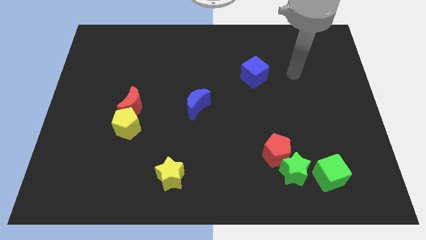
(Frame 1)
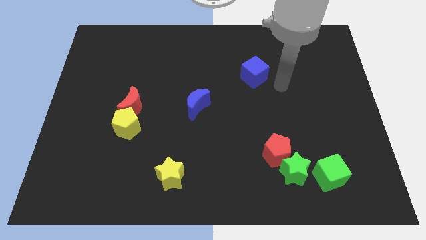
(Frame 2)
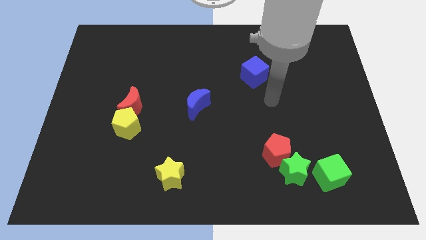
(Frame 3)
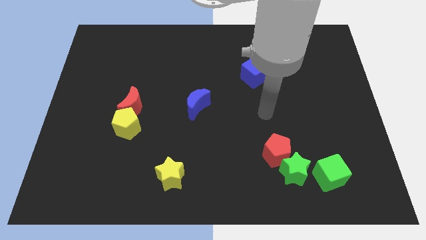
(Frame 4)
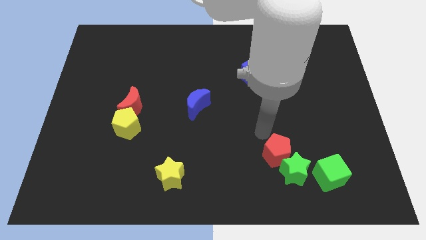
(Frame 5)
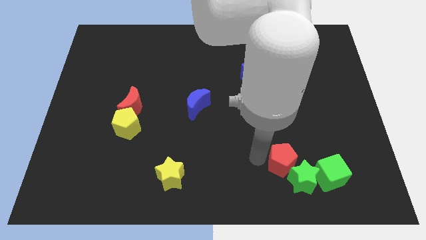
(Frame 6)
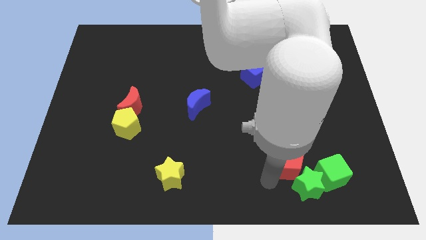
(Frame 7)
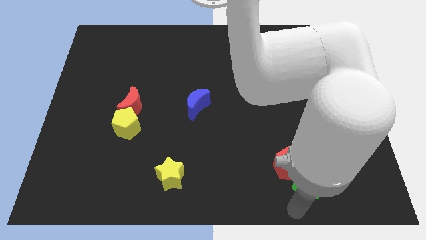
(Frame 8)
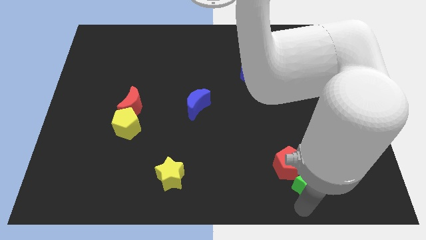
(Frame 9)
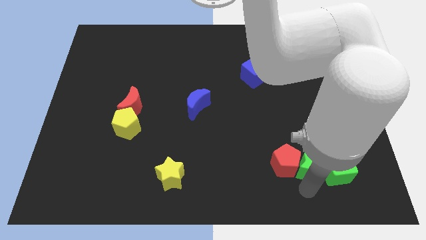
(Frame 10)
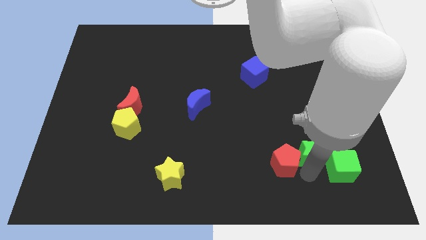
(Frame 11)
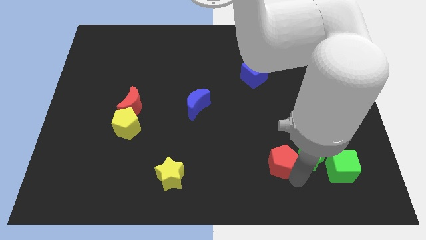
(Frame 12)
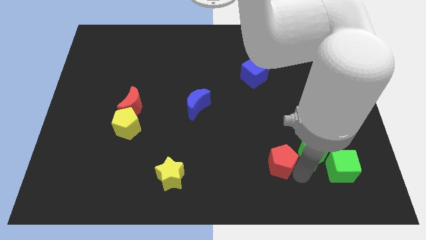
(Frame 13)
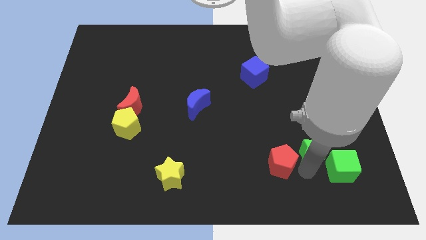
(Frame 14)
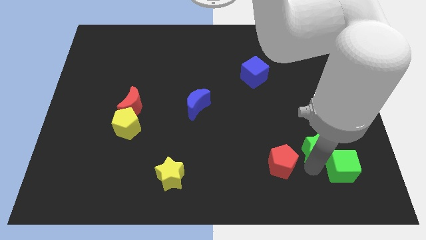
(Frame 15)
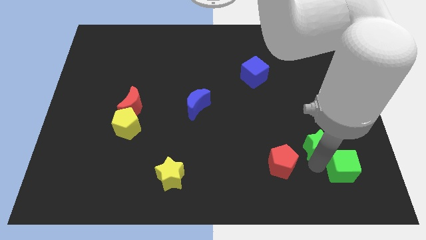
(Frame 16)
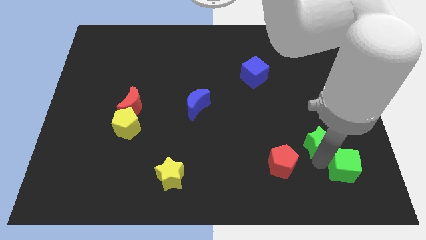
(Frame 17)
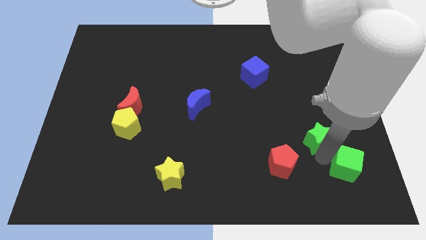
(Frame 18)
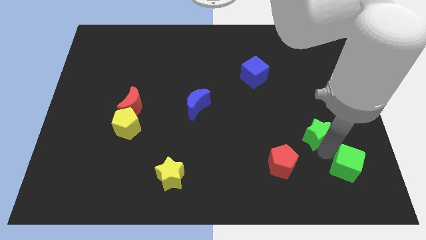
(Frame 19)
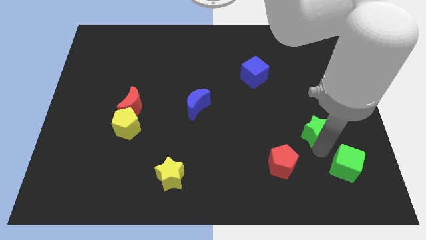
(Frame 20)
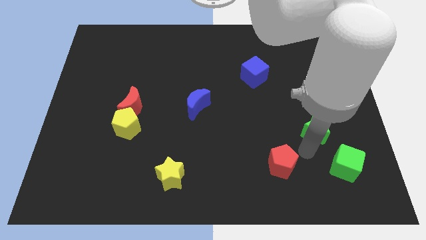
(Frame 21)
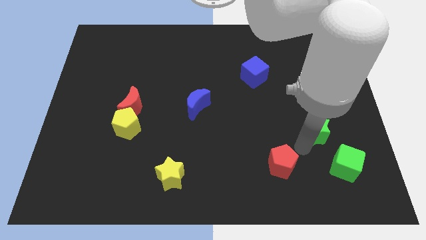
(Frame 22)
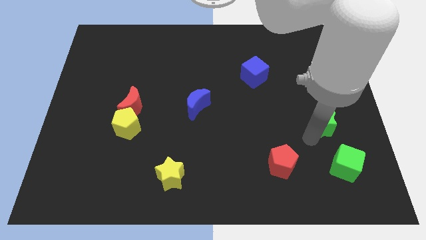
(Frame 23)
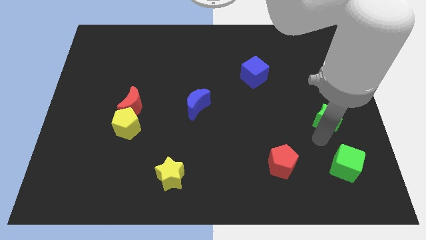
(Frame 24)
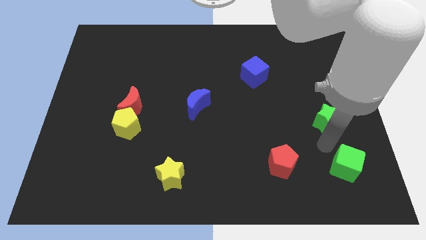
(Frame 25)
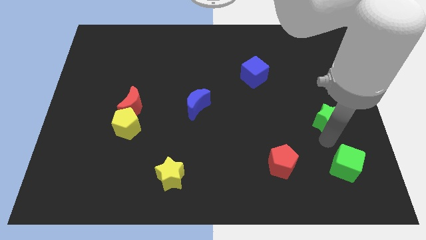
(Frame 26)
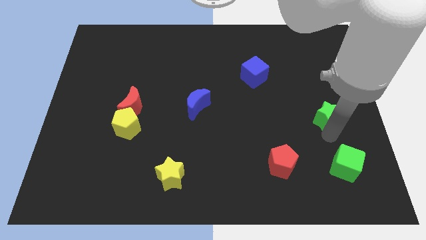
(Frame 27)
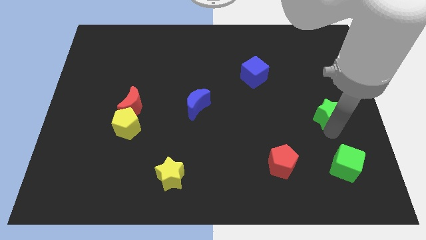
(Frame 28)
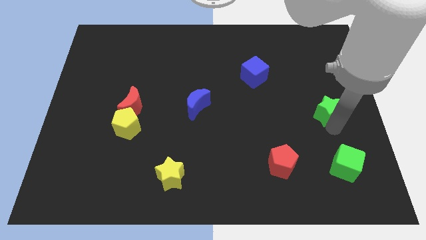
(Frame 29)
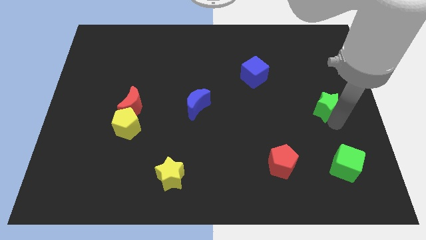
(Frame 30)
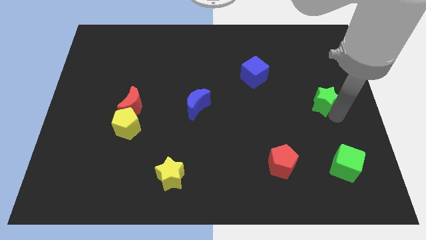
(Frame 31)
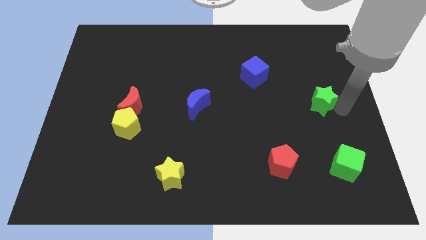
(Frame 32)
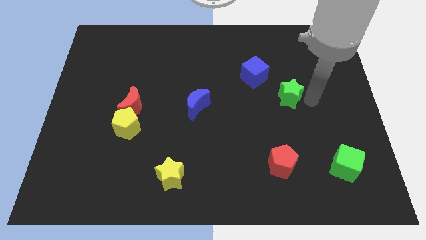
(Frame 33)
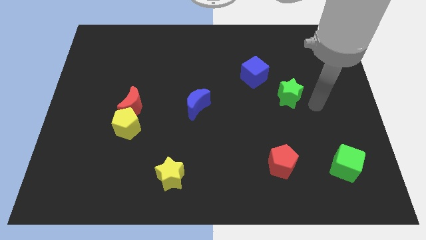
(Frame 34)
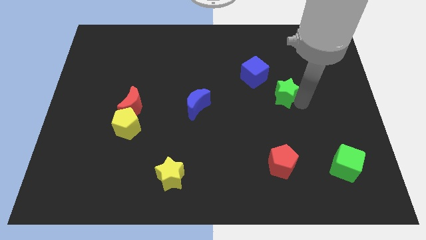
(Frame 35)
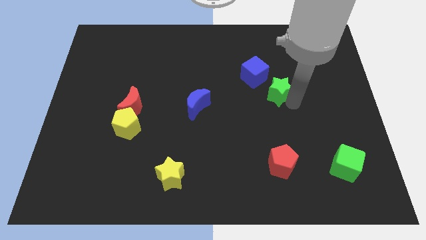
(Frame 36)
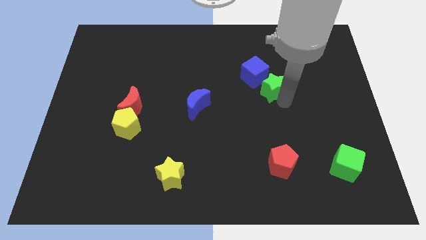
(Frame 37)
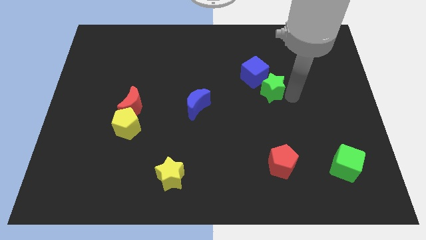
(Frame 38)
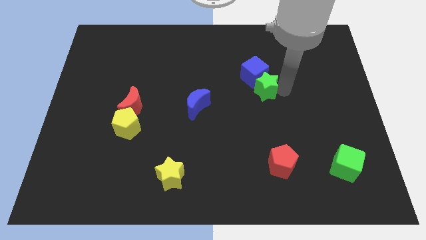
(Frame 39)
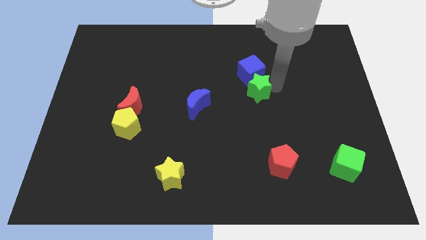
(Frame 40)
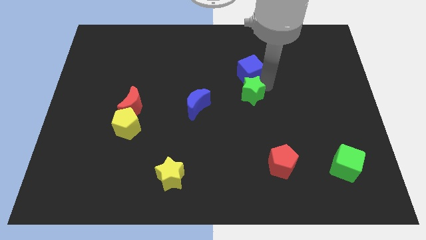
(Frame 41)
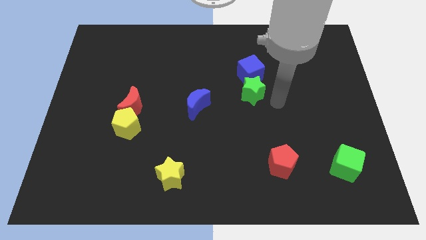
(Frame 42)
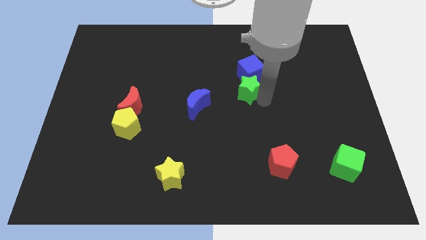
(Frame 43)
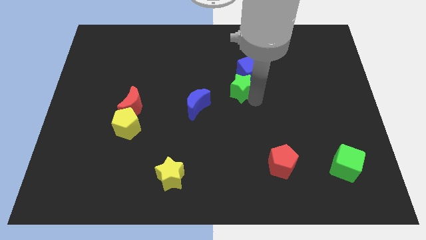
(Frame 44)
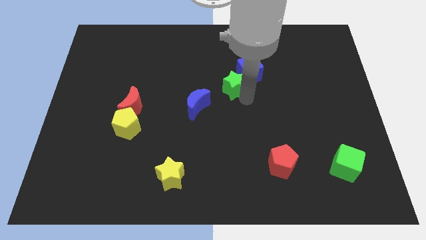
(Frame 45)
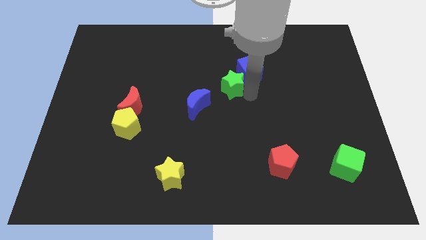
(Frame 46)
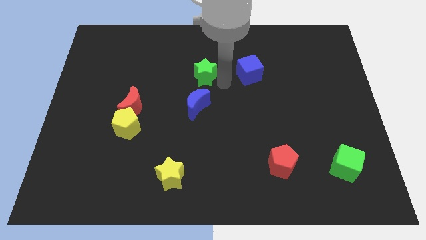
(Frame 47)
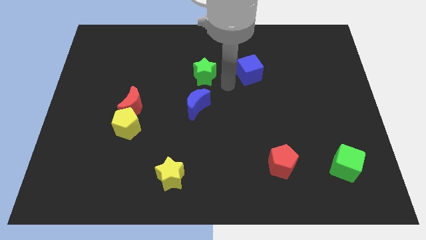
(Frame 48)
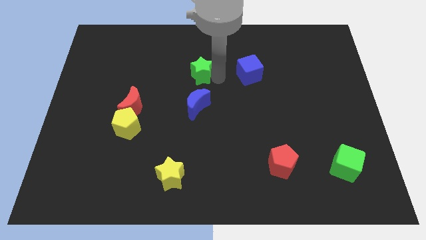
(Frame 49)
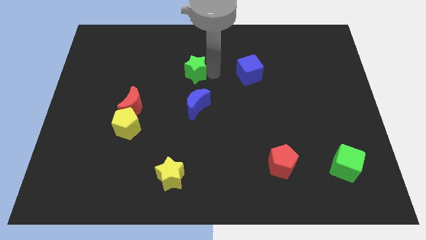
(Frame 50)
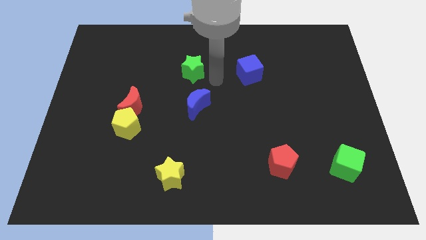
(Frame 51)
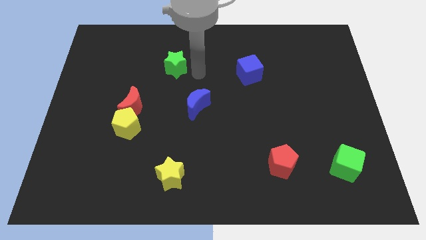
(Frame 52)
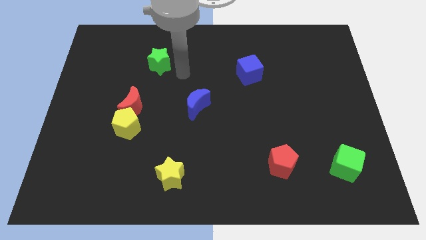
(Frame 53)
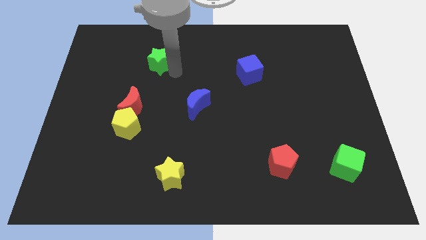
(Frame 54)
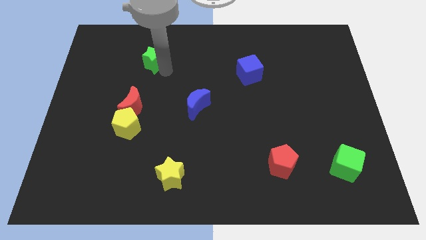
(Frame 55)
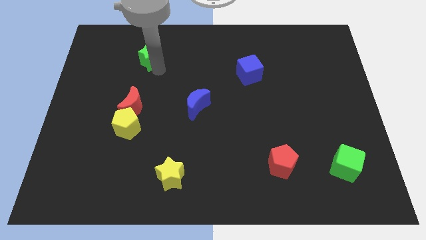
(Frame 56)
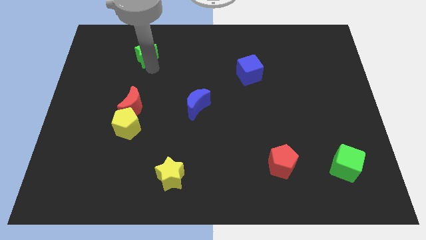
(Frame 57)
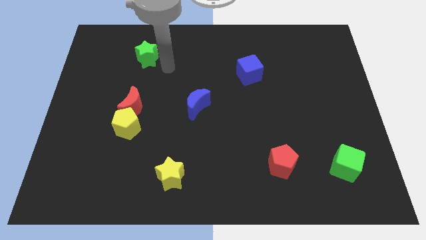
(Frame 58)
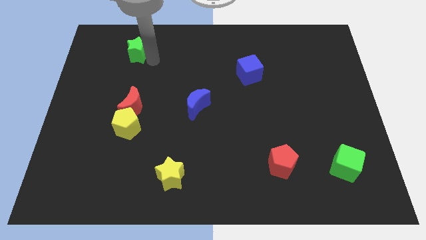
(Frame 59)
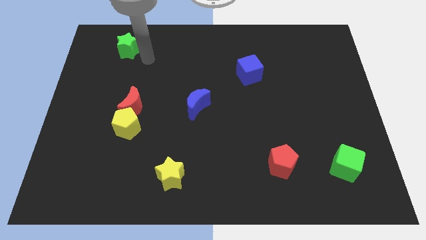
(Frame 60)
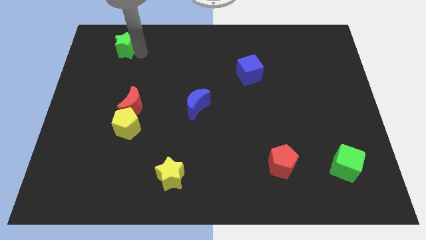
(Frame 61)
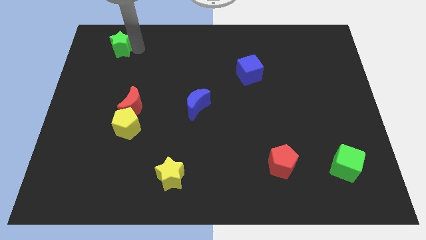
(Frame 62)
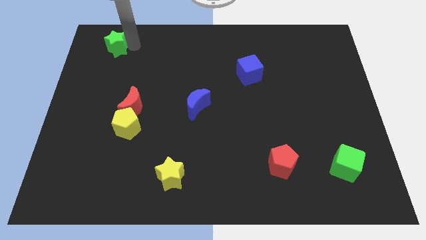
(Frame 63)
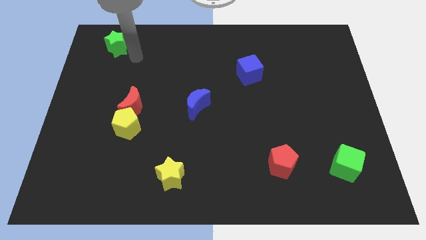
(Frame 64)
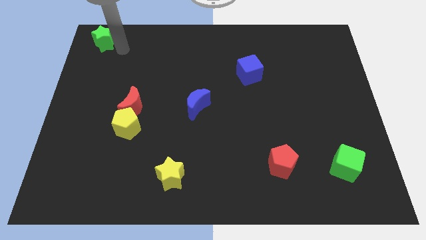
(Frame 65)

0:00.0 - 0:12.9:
move the green star to the top left of the board
